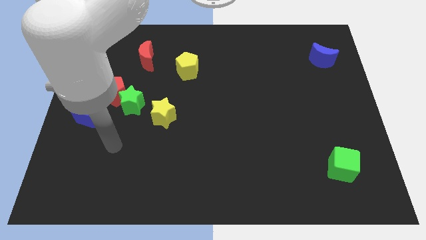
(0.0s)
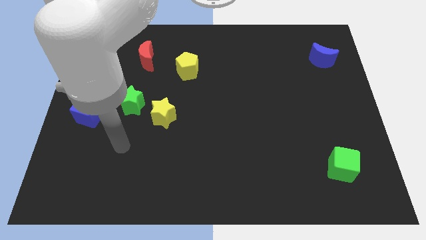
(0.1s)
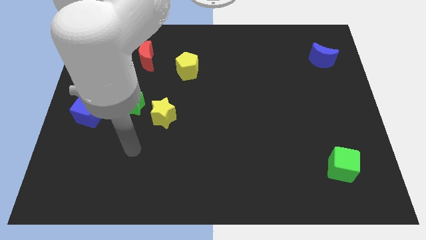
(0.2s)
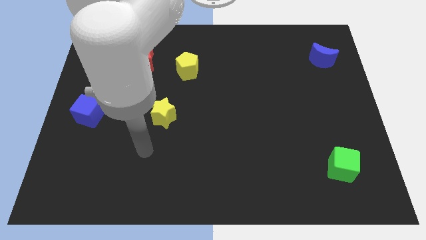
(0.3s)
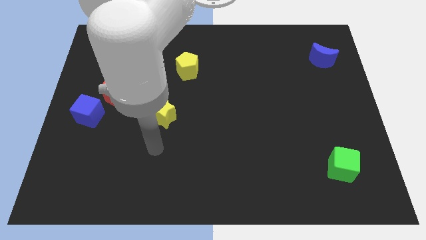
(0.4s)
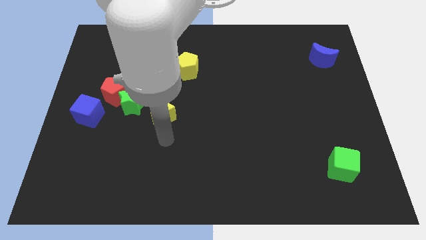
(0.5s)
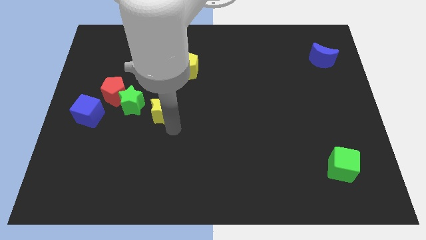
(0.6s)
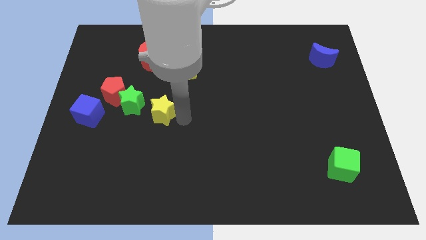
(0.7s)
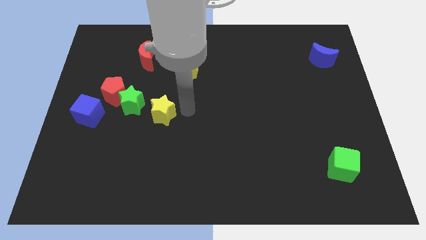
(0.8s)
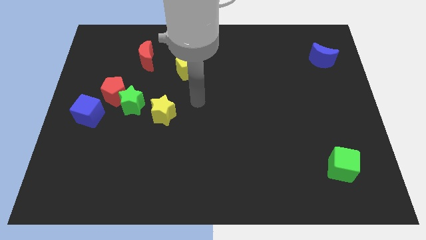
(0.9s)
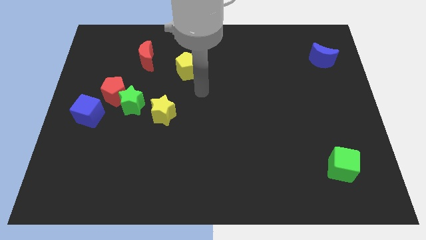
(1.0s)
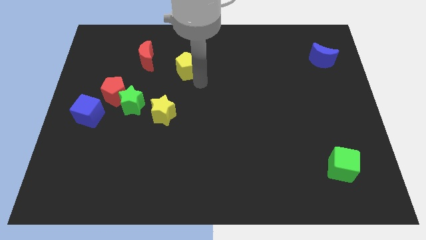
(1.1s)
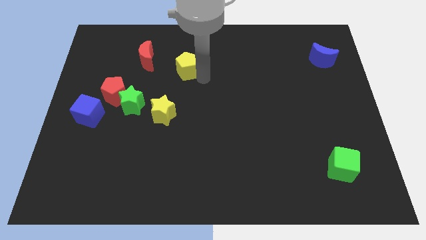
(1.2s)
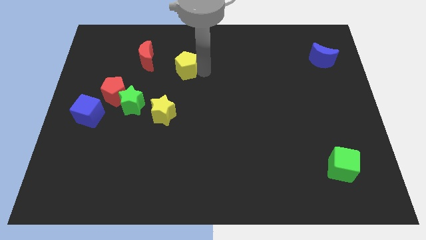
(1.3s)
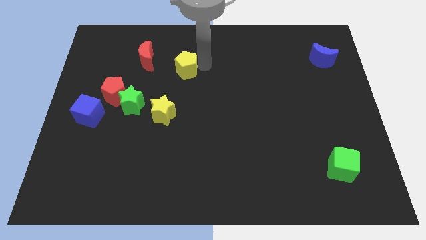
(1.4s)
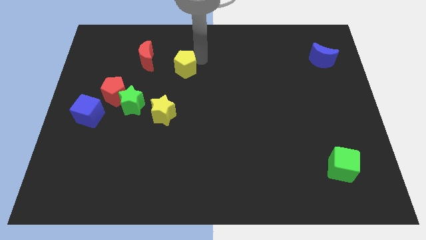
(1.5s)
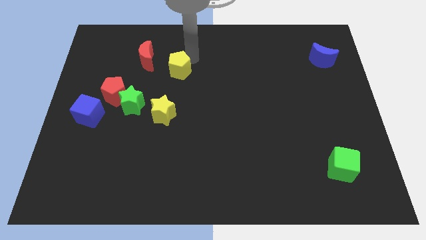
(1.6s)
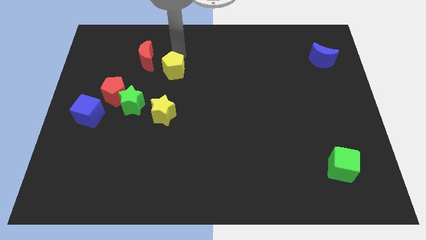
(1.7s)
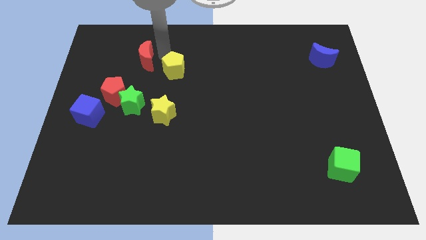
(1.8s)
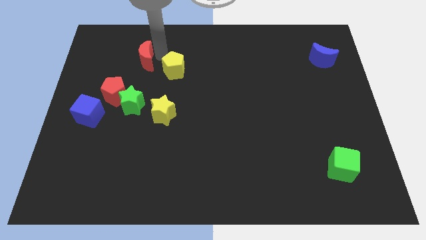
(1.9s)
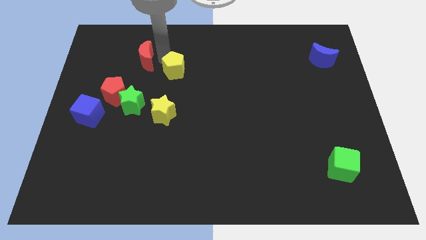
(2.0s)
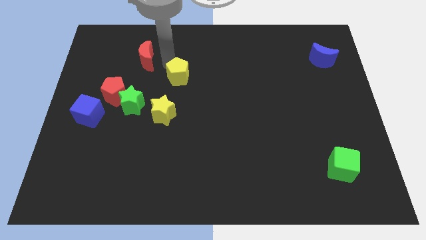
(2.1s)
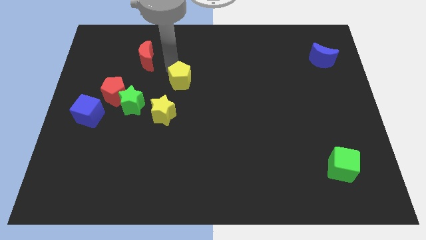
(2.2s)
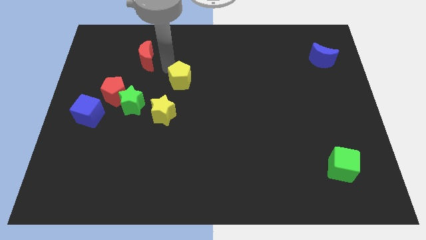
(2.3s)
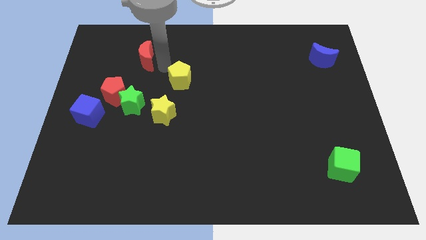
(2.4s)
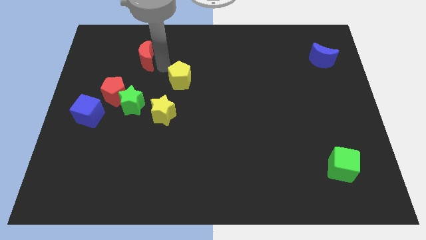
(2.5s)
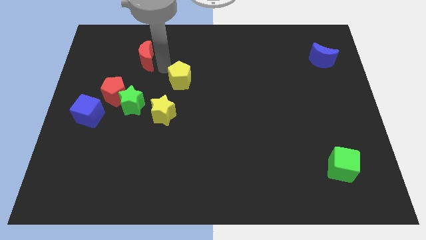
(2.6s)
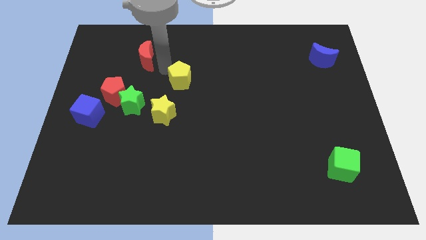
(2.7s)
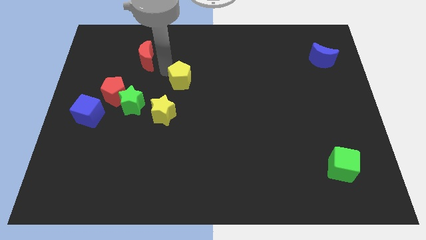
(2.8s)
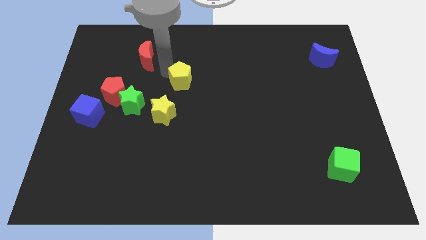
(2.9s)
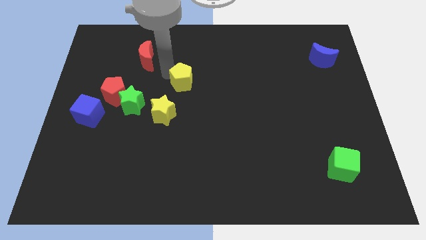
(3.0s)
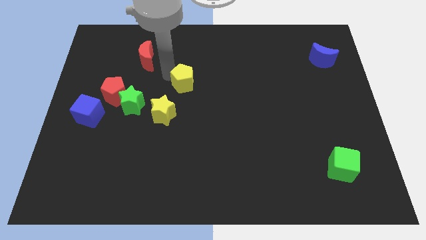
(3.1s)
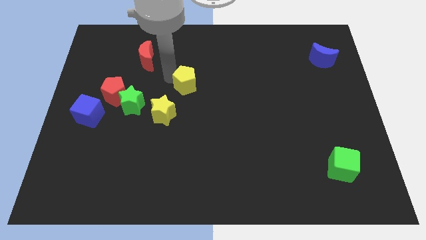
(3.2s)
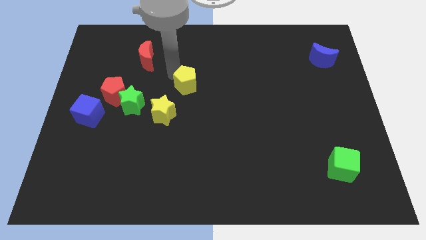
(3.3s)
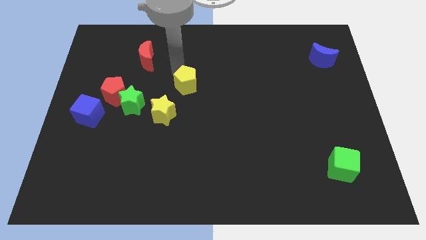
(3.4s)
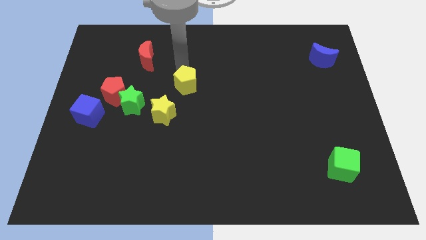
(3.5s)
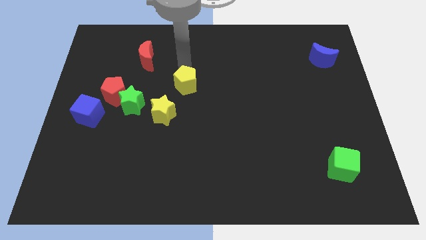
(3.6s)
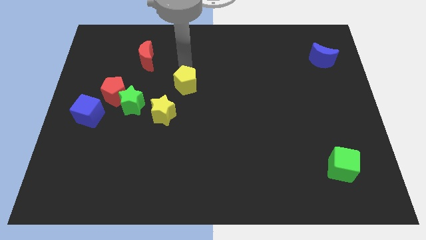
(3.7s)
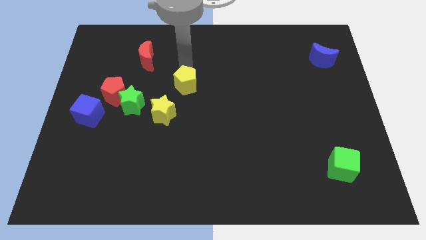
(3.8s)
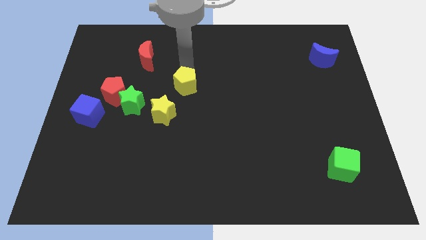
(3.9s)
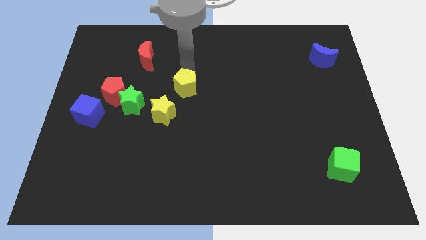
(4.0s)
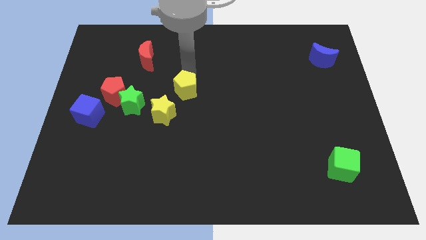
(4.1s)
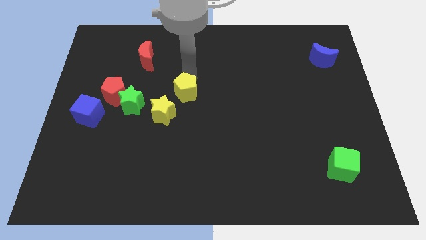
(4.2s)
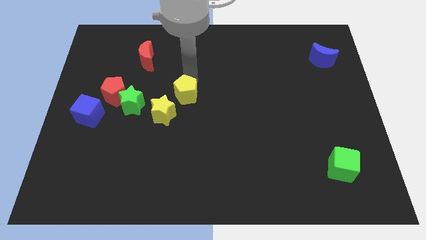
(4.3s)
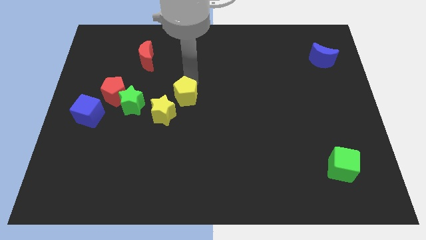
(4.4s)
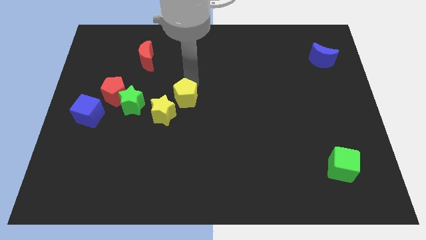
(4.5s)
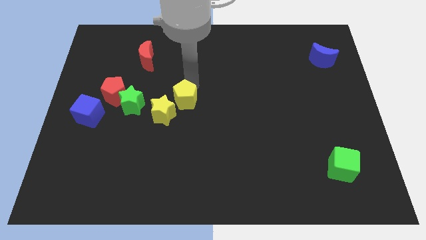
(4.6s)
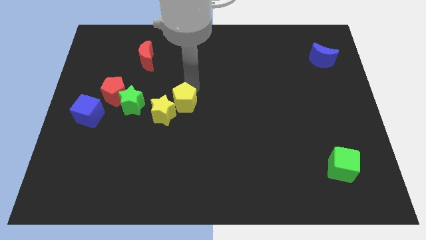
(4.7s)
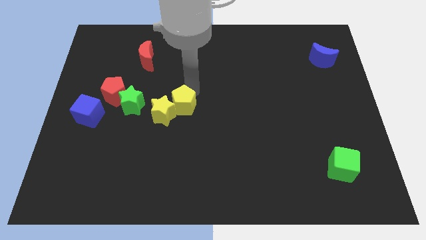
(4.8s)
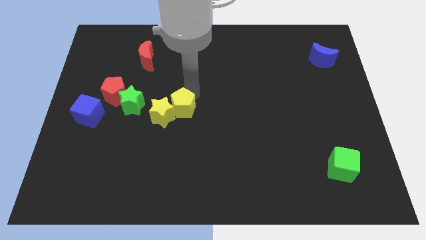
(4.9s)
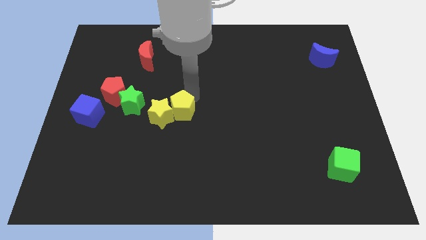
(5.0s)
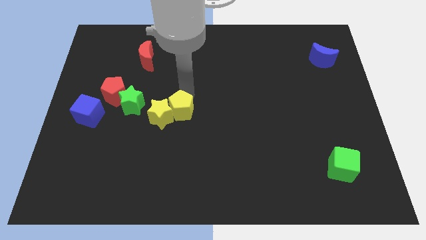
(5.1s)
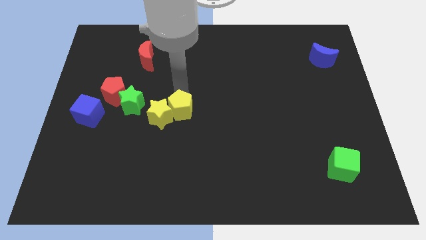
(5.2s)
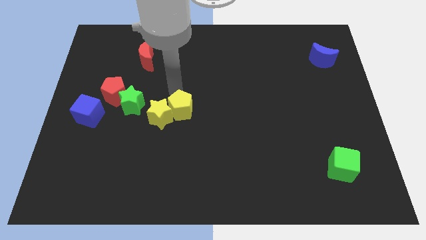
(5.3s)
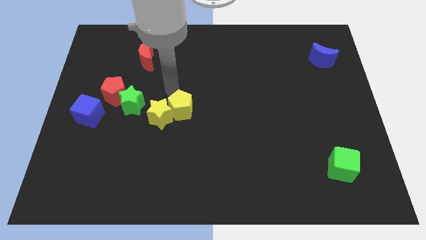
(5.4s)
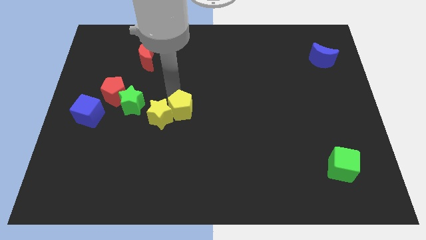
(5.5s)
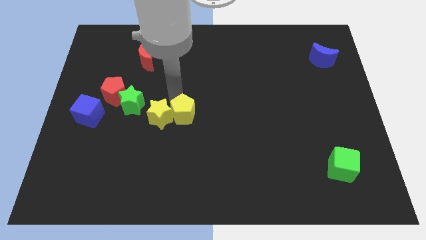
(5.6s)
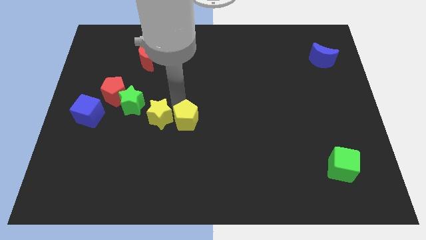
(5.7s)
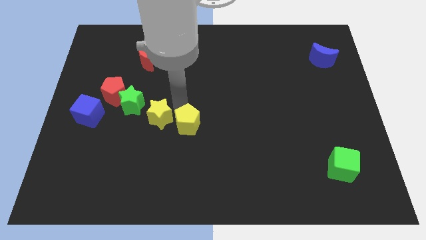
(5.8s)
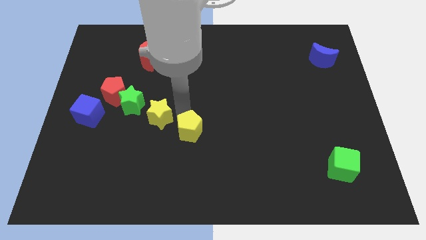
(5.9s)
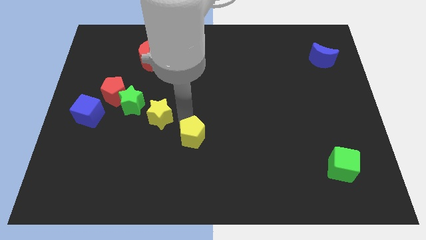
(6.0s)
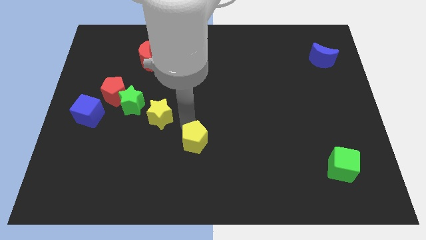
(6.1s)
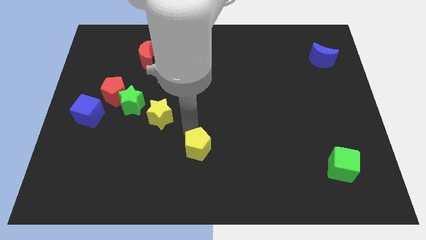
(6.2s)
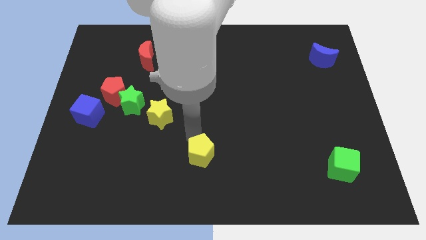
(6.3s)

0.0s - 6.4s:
push the yellow pentagon to the bottom side
